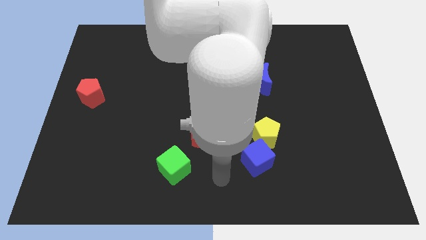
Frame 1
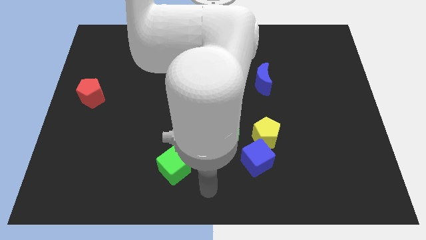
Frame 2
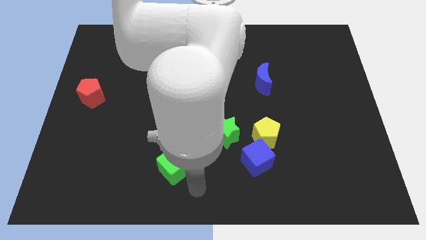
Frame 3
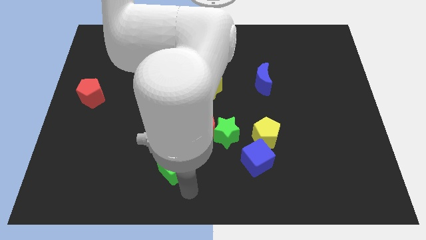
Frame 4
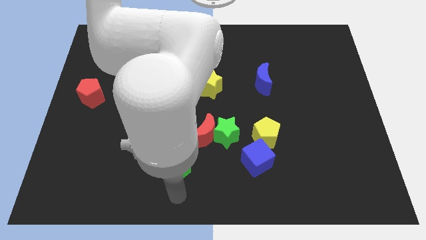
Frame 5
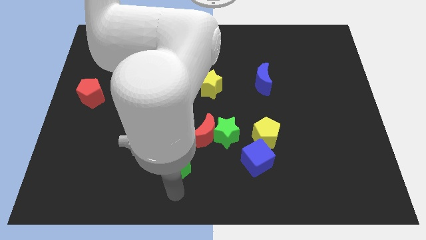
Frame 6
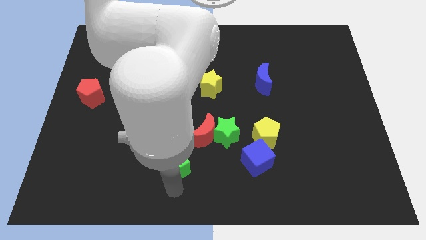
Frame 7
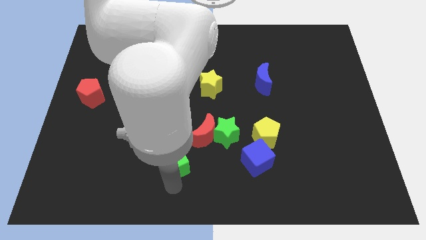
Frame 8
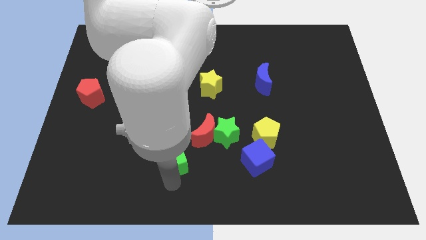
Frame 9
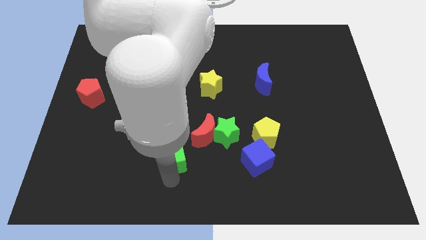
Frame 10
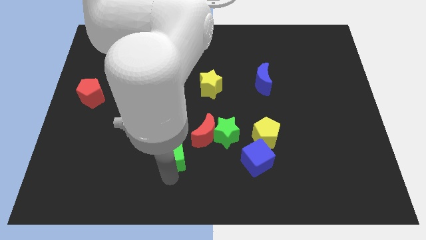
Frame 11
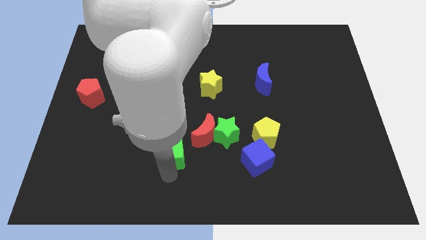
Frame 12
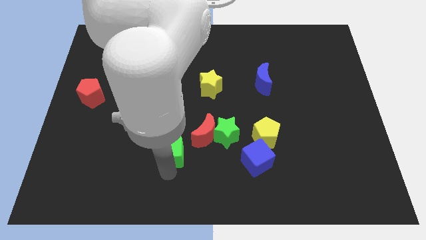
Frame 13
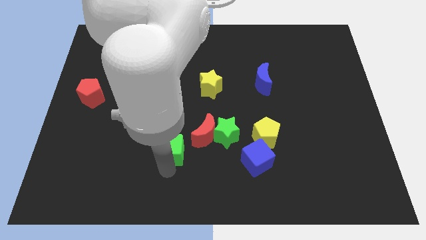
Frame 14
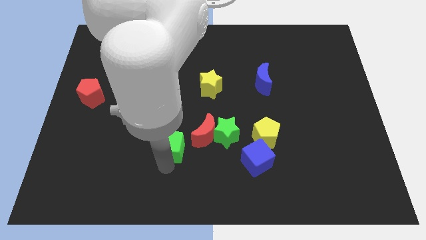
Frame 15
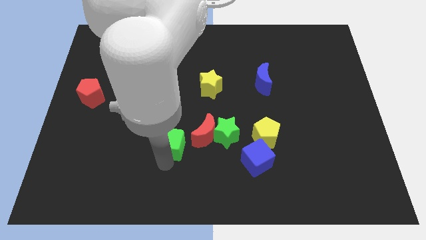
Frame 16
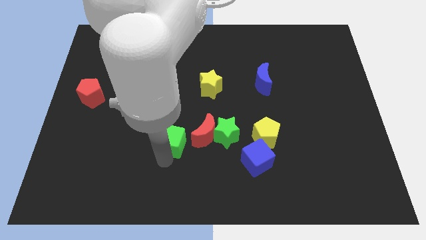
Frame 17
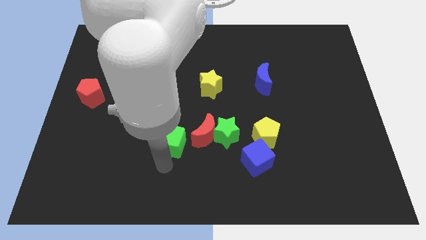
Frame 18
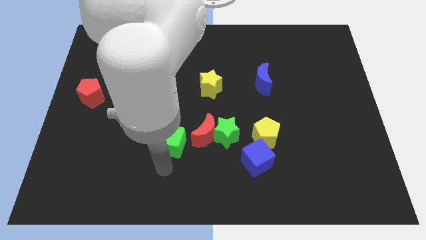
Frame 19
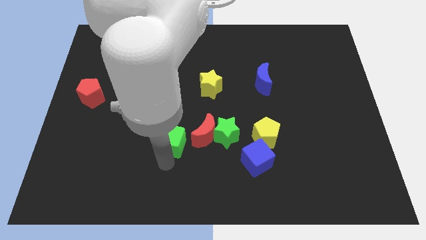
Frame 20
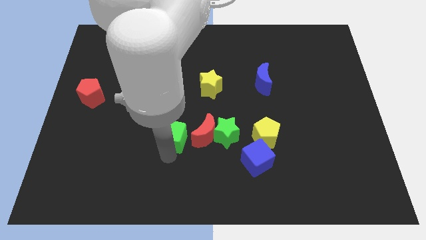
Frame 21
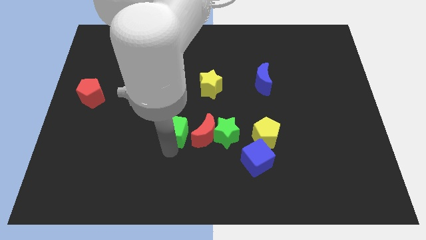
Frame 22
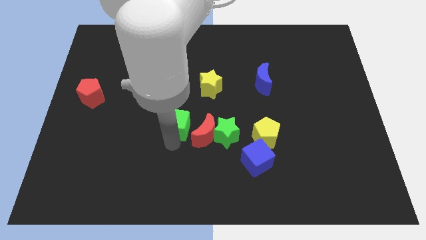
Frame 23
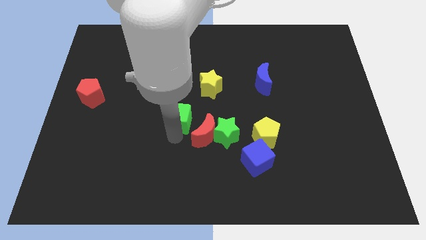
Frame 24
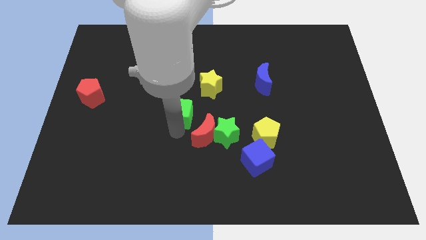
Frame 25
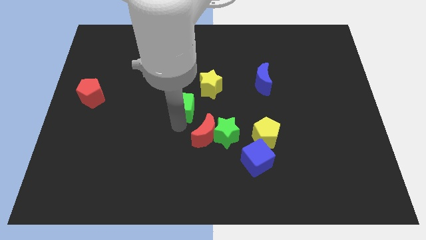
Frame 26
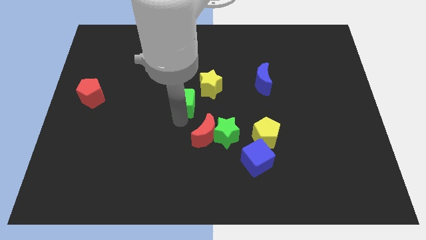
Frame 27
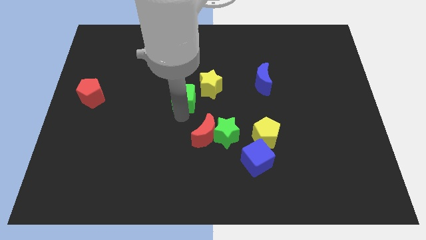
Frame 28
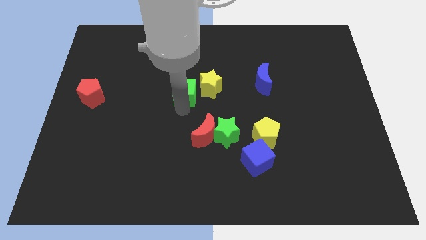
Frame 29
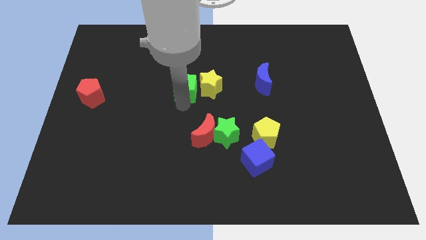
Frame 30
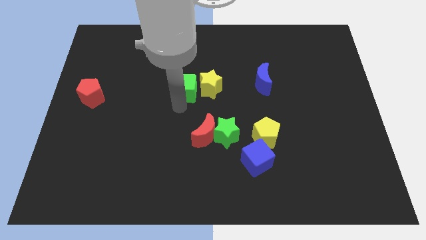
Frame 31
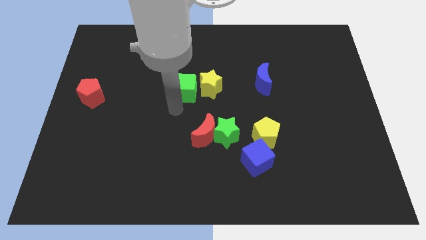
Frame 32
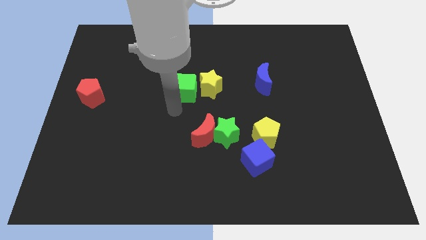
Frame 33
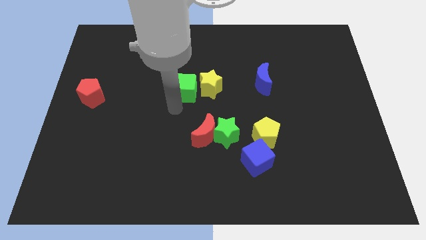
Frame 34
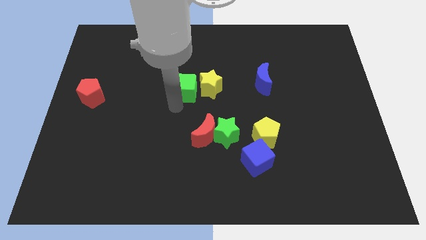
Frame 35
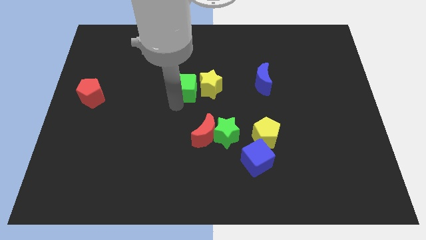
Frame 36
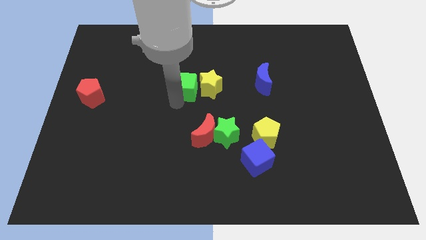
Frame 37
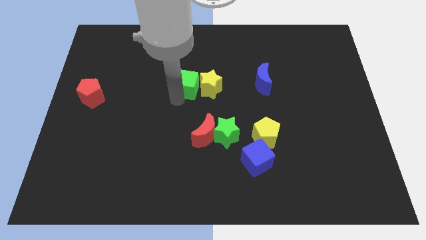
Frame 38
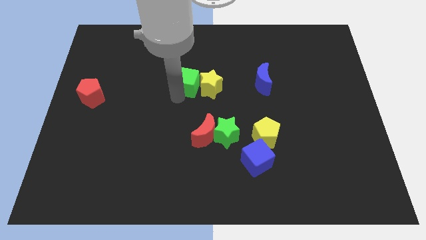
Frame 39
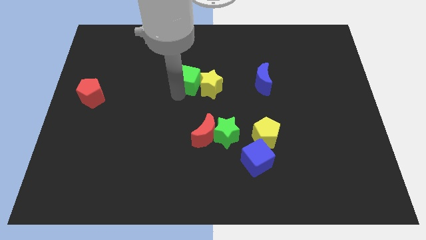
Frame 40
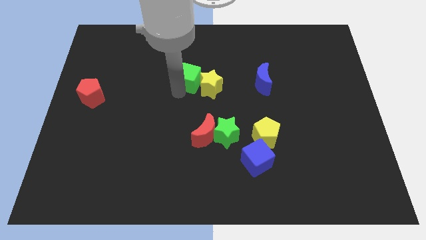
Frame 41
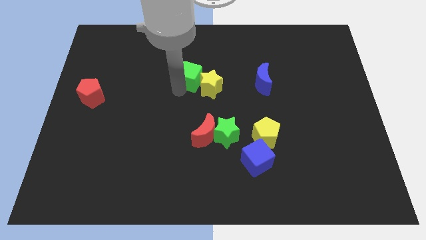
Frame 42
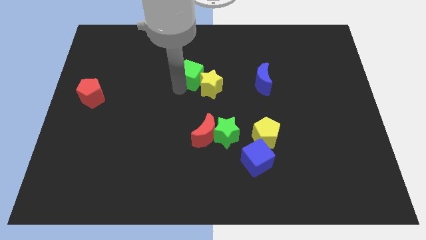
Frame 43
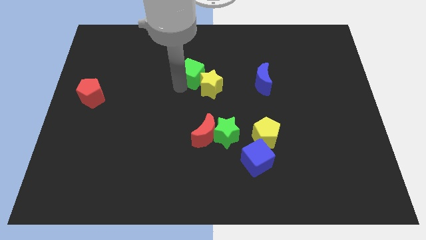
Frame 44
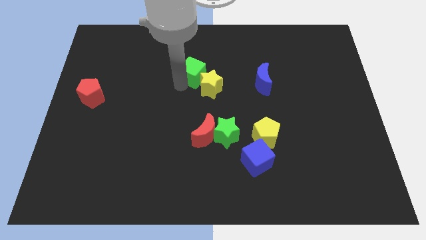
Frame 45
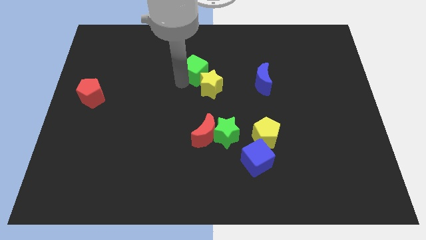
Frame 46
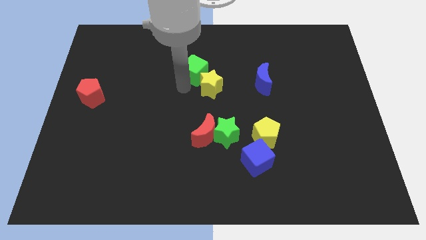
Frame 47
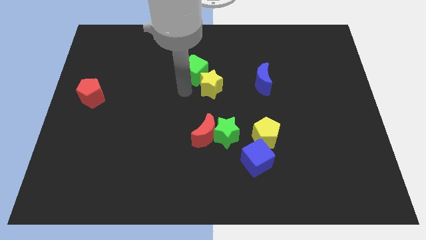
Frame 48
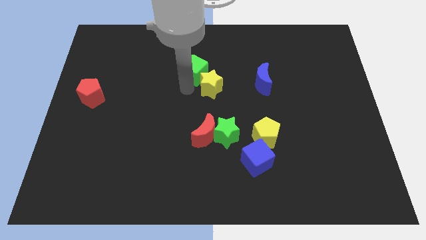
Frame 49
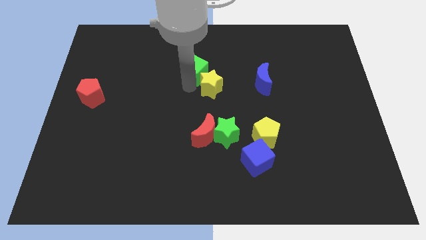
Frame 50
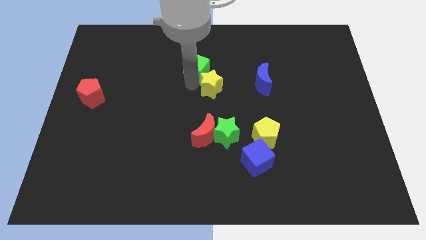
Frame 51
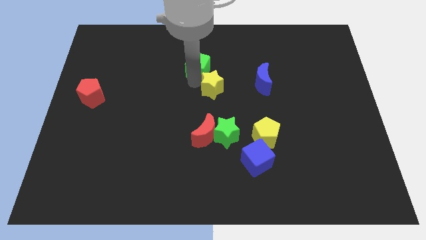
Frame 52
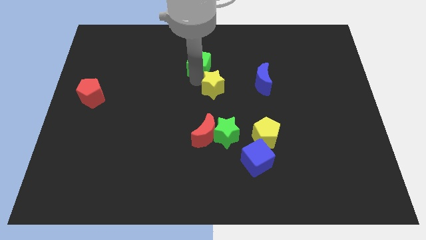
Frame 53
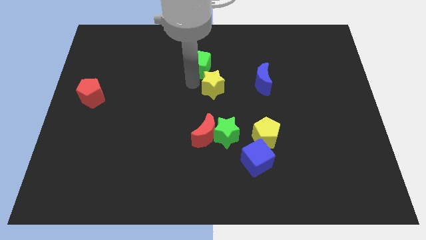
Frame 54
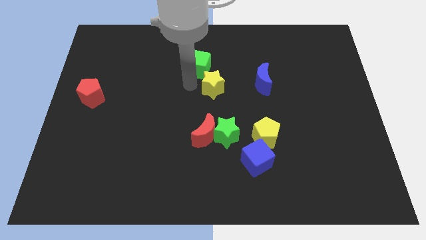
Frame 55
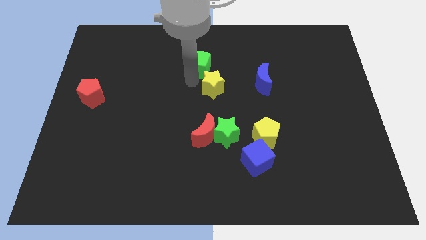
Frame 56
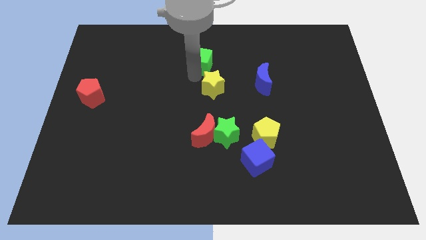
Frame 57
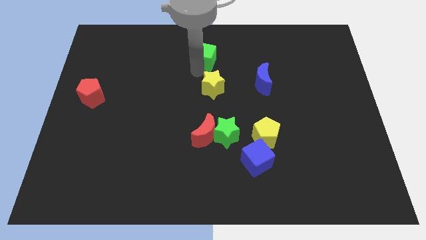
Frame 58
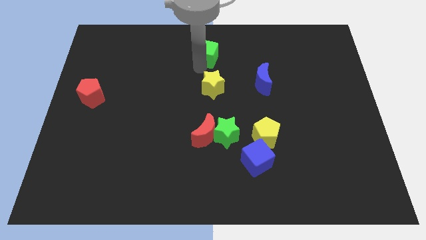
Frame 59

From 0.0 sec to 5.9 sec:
push the green cube to the top side
